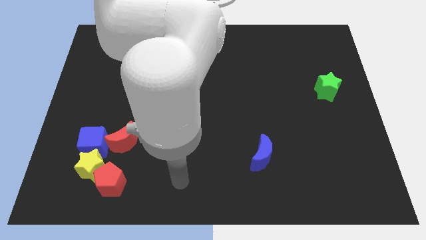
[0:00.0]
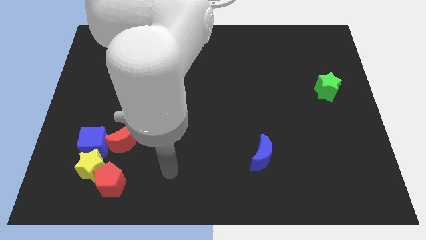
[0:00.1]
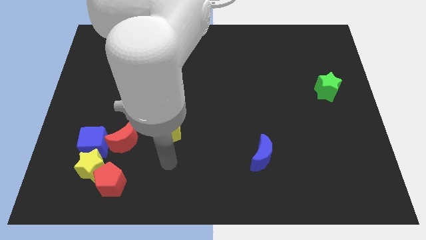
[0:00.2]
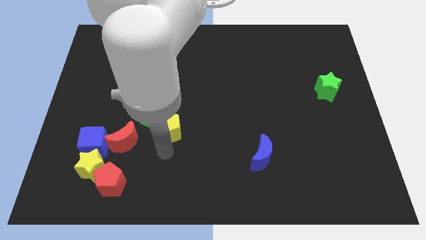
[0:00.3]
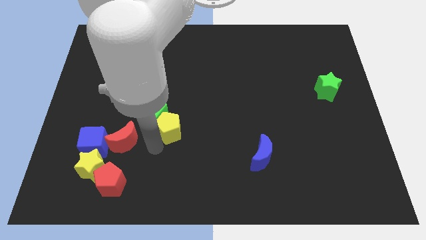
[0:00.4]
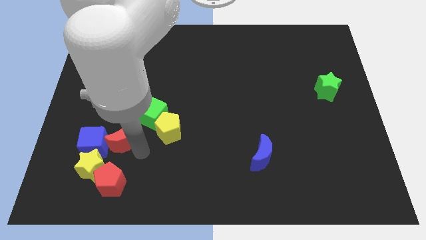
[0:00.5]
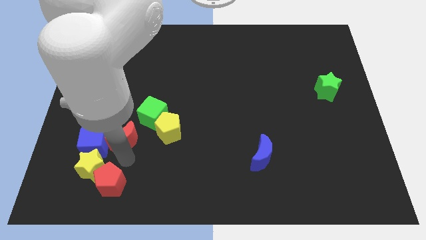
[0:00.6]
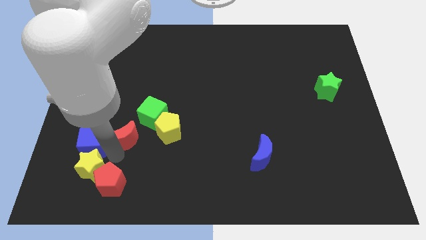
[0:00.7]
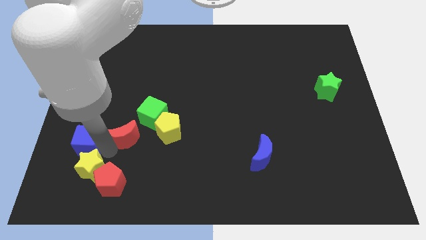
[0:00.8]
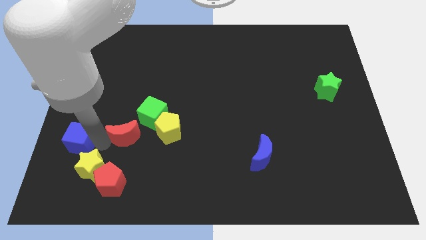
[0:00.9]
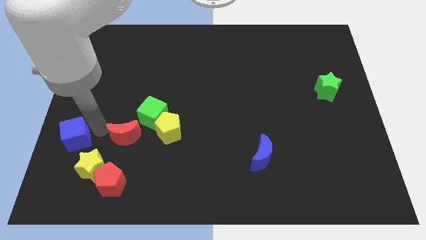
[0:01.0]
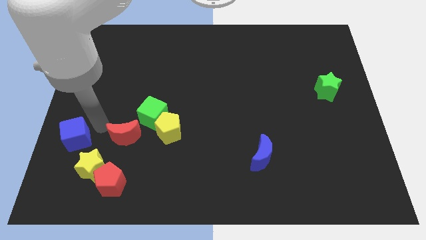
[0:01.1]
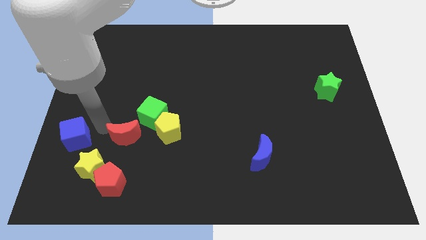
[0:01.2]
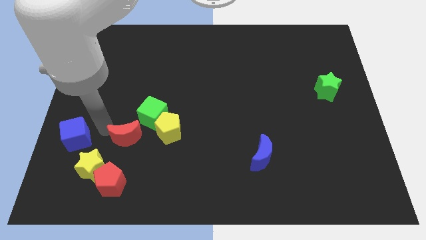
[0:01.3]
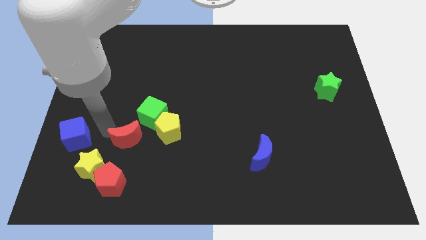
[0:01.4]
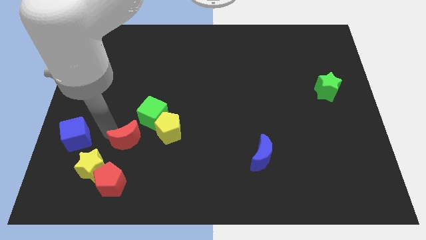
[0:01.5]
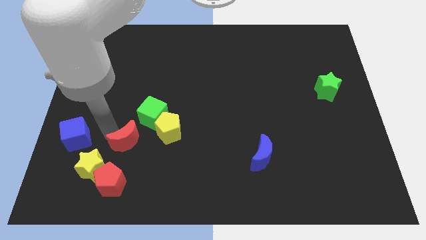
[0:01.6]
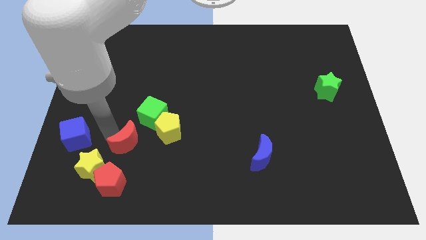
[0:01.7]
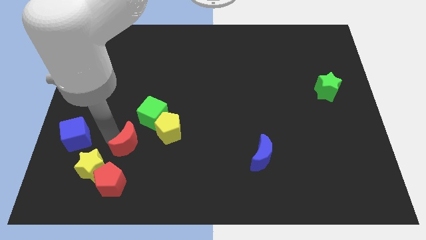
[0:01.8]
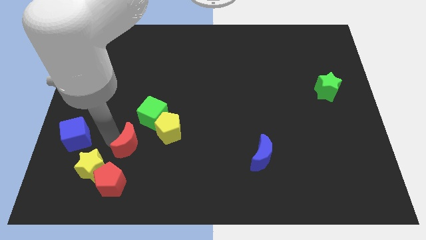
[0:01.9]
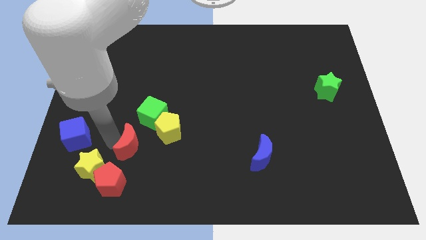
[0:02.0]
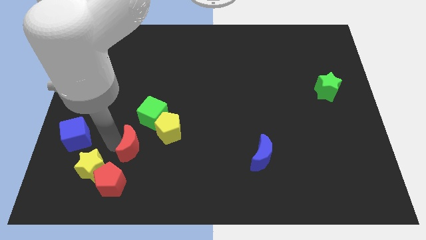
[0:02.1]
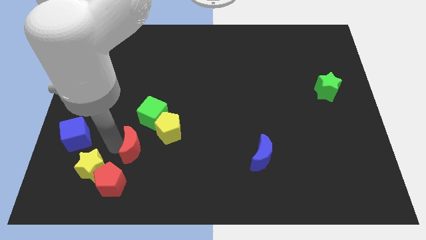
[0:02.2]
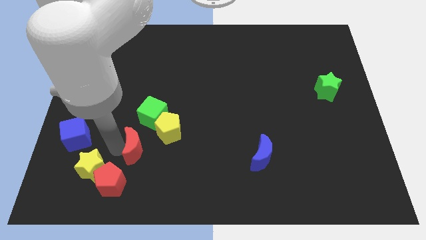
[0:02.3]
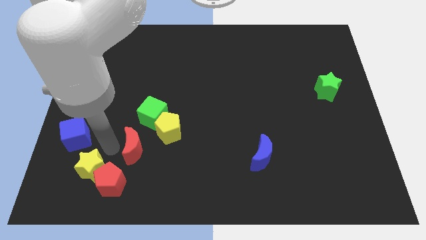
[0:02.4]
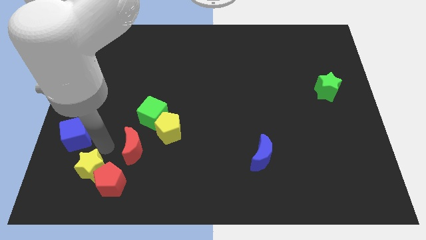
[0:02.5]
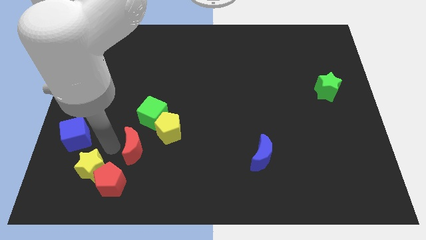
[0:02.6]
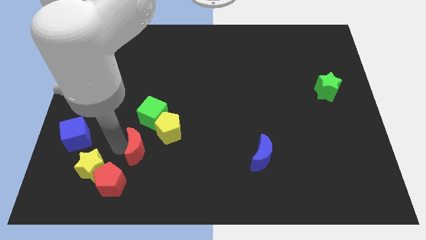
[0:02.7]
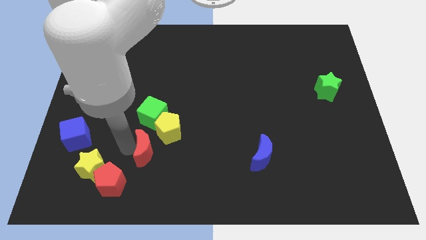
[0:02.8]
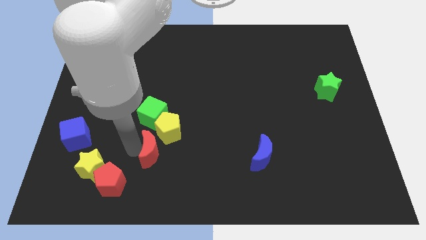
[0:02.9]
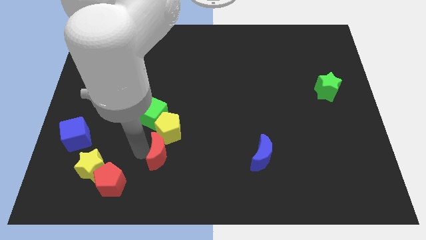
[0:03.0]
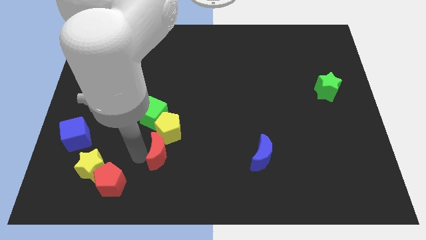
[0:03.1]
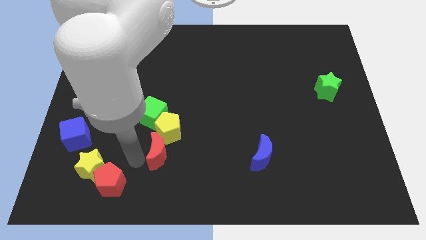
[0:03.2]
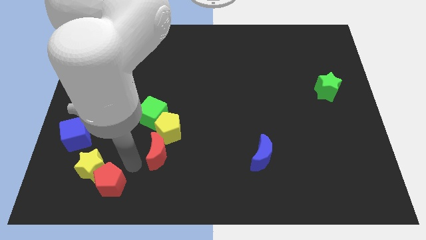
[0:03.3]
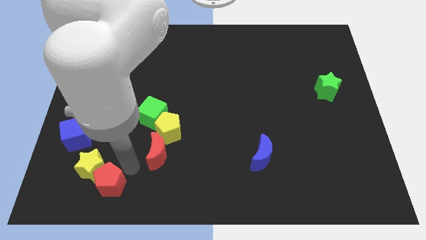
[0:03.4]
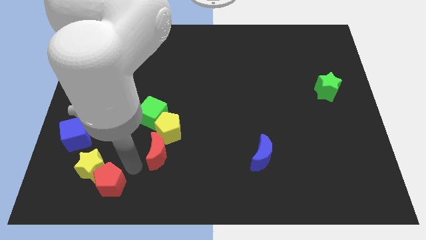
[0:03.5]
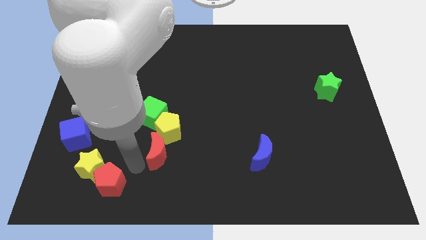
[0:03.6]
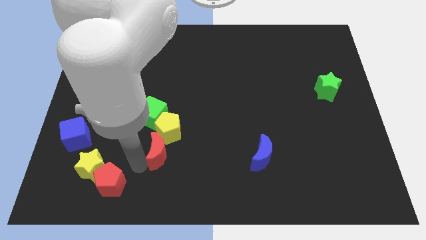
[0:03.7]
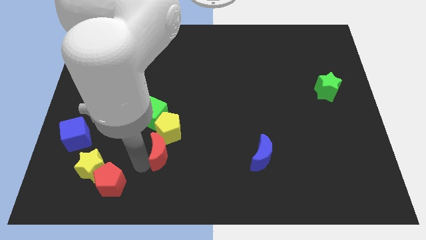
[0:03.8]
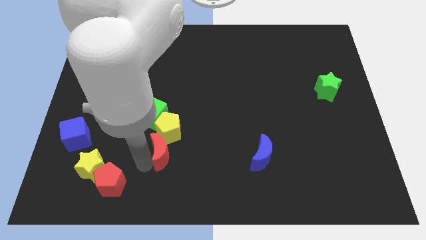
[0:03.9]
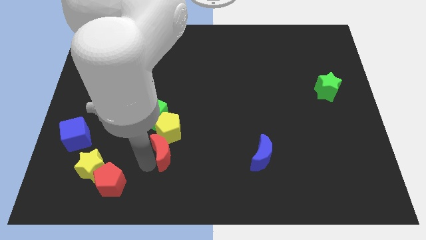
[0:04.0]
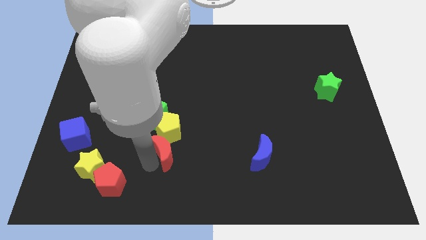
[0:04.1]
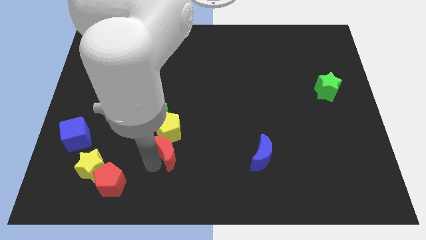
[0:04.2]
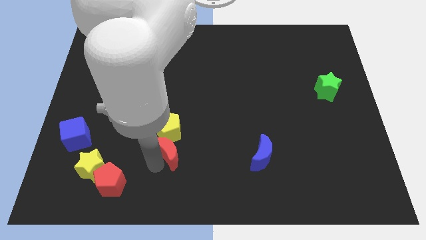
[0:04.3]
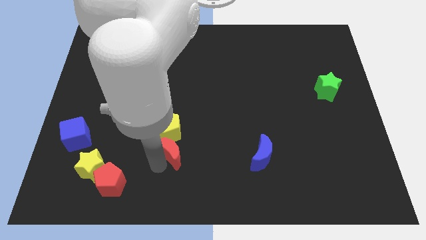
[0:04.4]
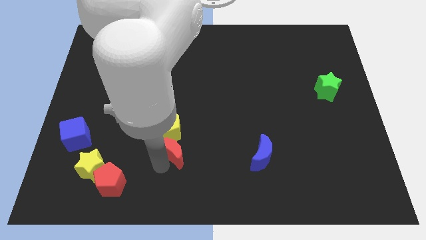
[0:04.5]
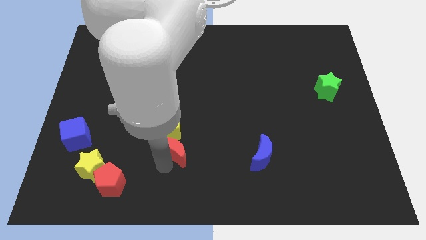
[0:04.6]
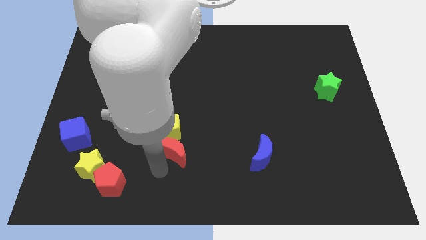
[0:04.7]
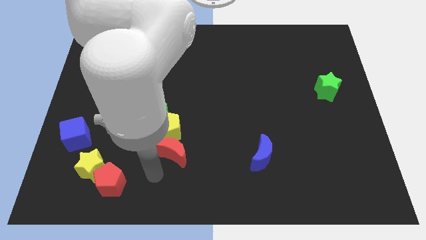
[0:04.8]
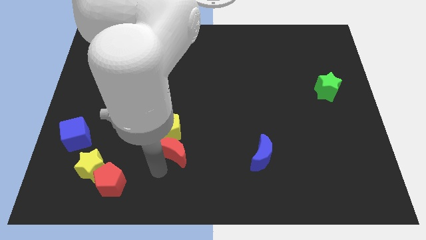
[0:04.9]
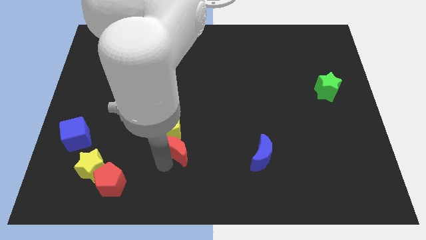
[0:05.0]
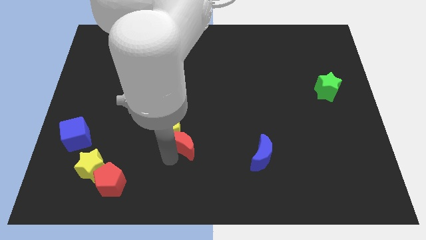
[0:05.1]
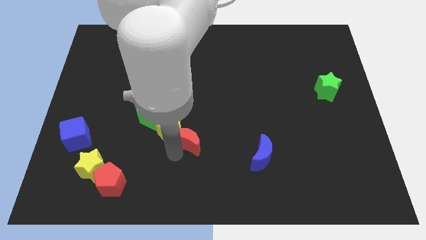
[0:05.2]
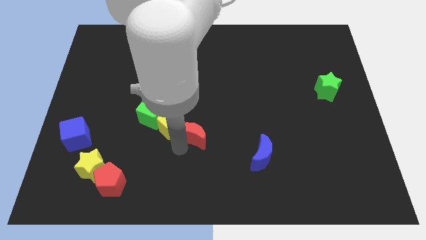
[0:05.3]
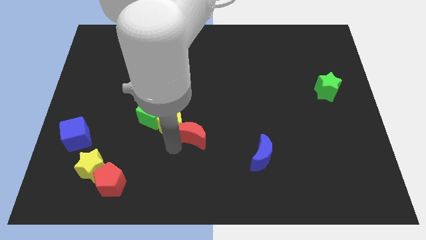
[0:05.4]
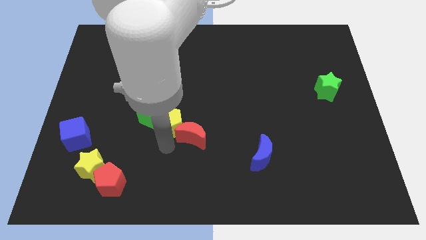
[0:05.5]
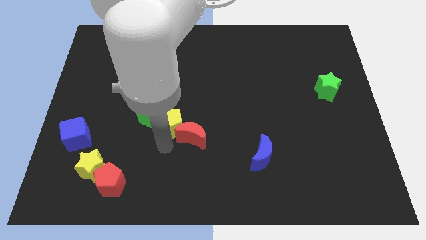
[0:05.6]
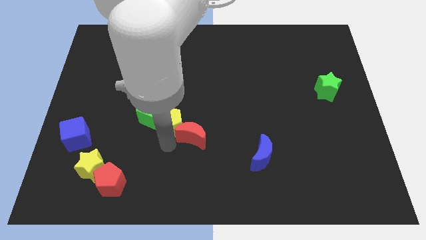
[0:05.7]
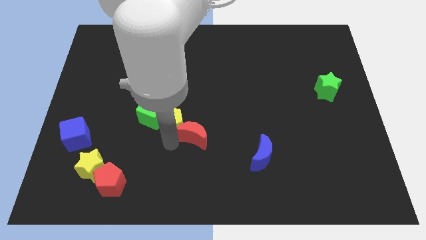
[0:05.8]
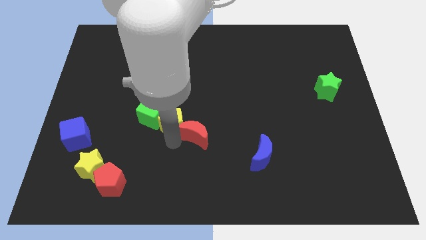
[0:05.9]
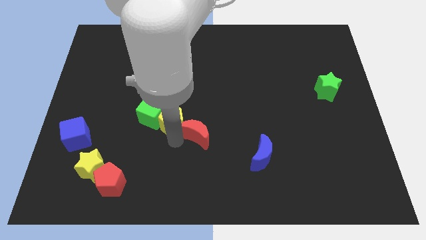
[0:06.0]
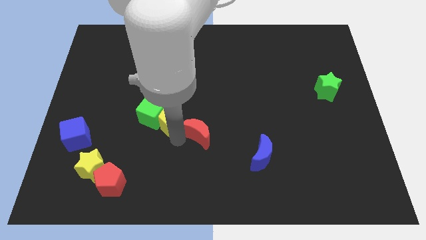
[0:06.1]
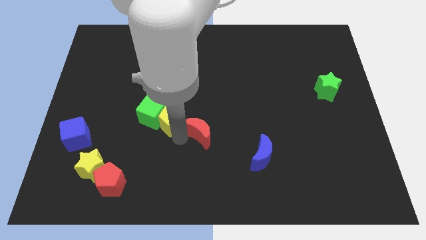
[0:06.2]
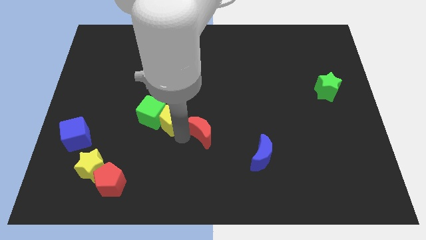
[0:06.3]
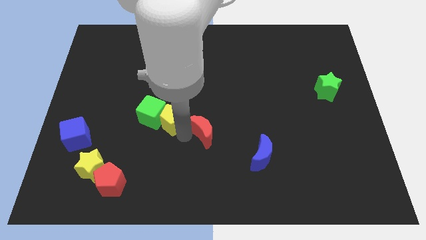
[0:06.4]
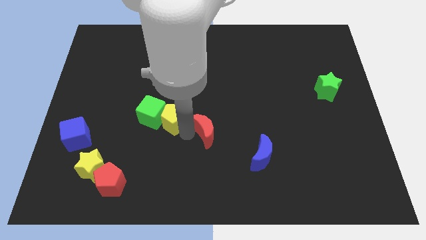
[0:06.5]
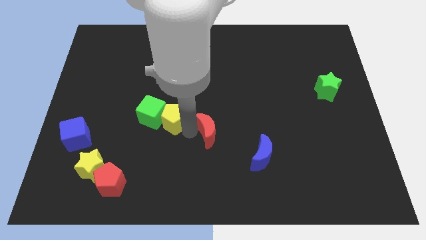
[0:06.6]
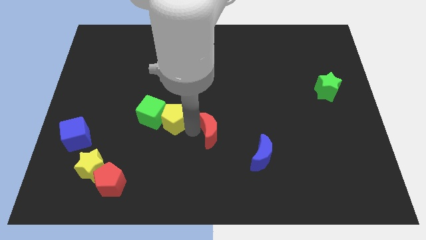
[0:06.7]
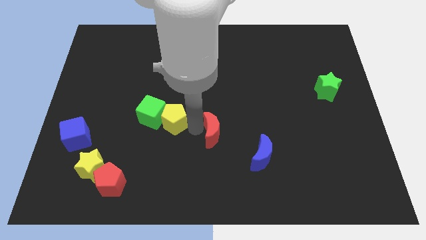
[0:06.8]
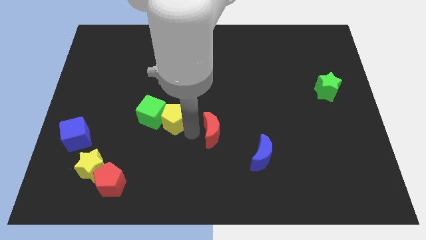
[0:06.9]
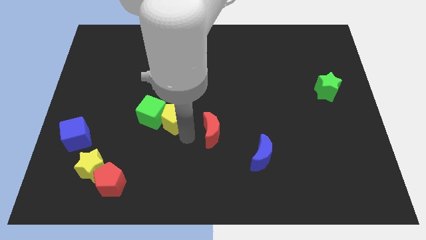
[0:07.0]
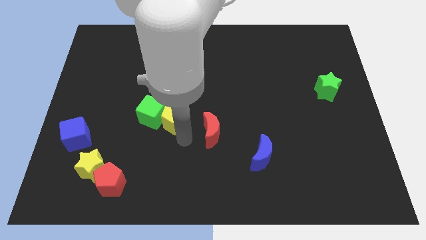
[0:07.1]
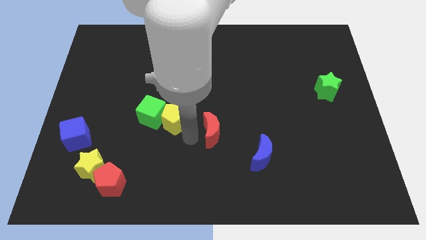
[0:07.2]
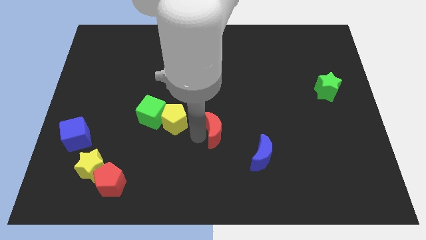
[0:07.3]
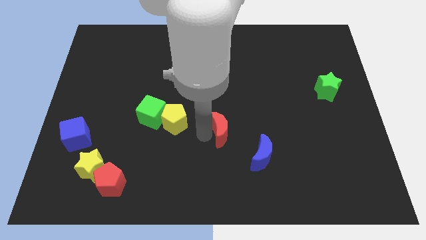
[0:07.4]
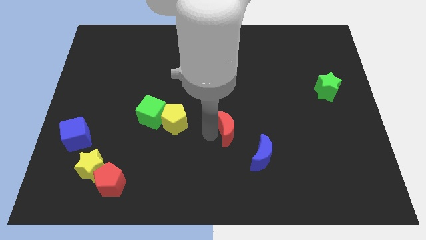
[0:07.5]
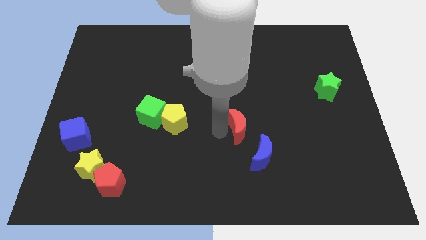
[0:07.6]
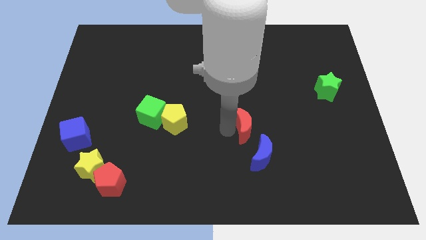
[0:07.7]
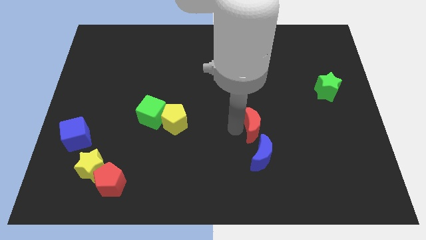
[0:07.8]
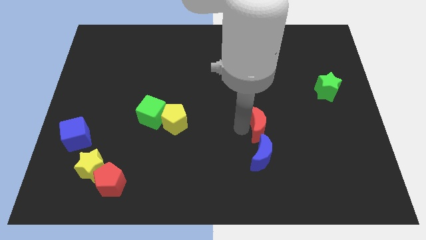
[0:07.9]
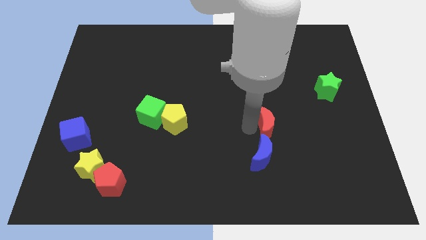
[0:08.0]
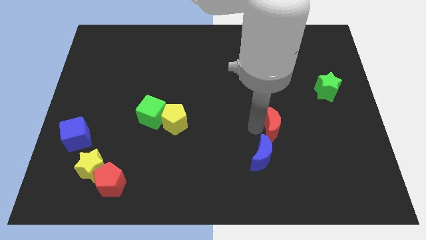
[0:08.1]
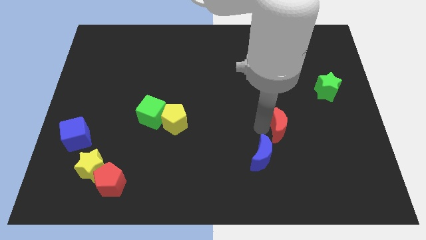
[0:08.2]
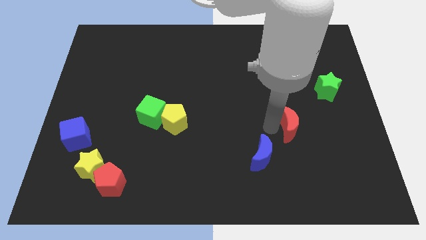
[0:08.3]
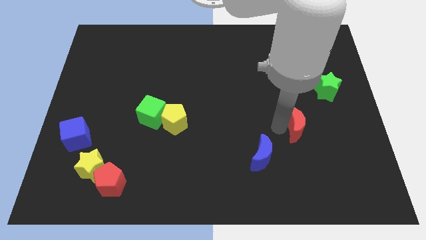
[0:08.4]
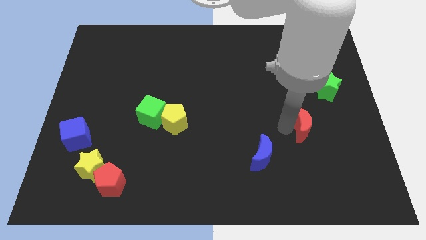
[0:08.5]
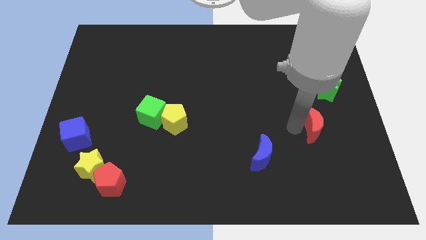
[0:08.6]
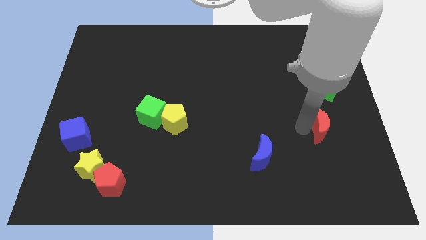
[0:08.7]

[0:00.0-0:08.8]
push the red moon below the green star
